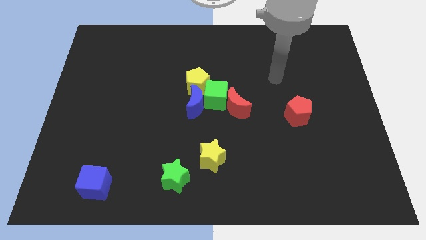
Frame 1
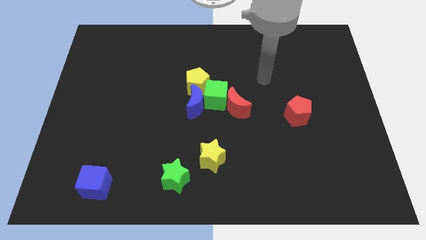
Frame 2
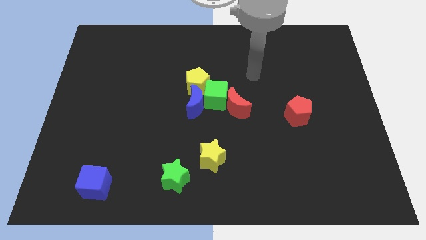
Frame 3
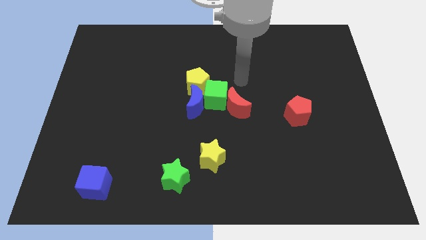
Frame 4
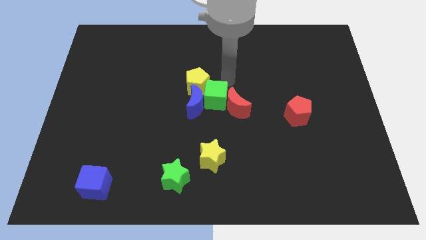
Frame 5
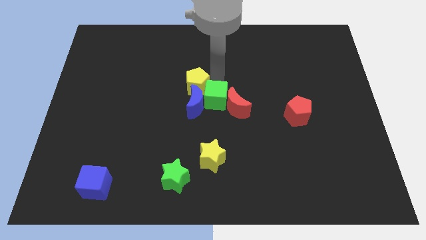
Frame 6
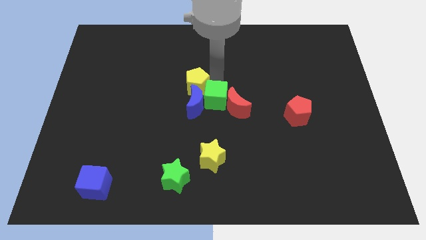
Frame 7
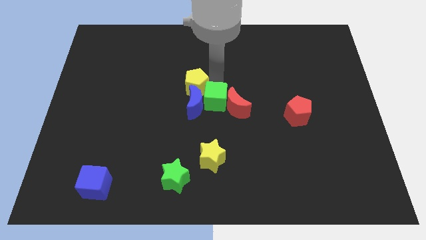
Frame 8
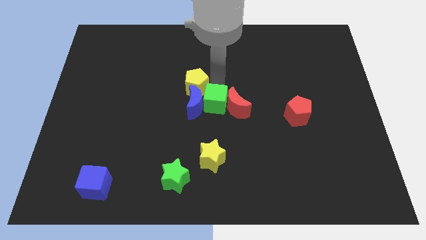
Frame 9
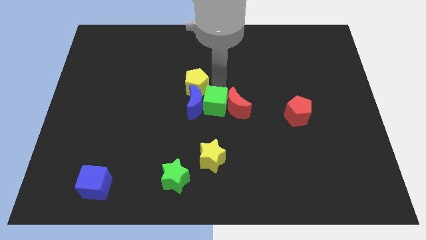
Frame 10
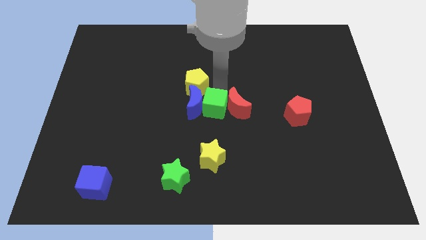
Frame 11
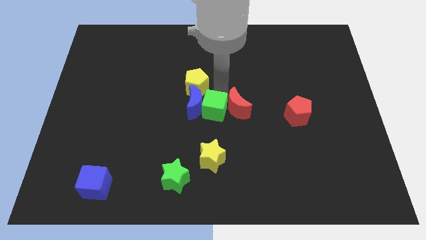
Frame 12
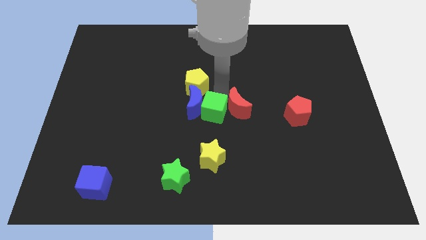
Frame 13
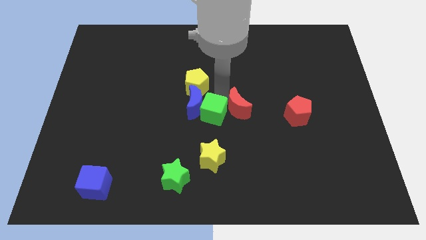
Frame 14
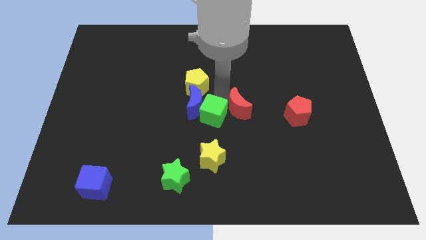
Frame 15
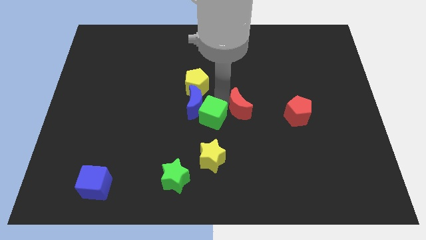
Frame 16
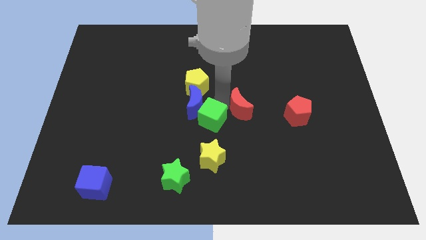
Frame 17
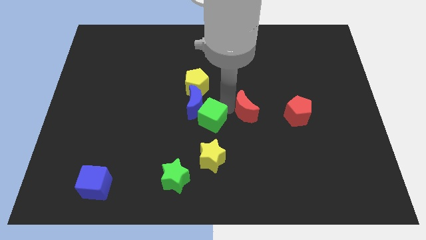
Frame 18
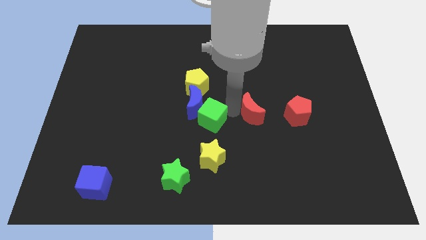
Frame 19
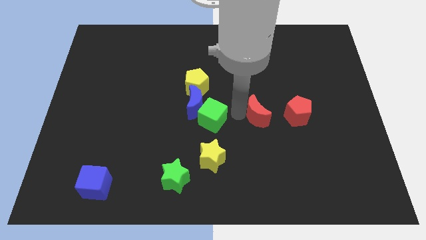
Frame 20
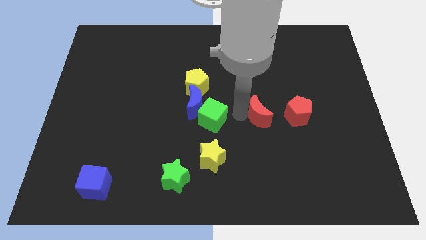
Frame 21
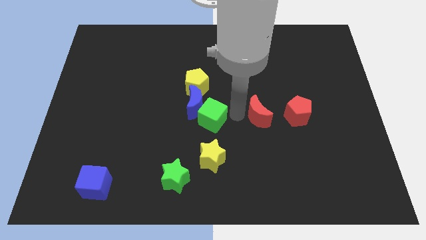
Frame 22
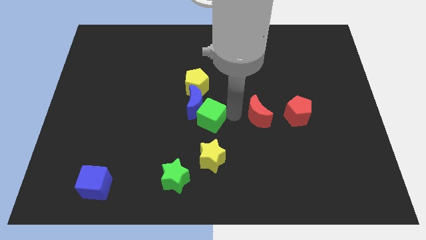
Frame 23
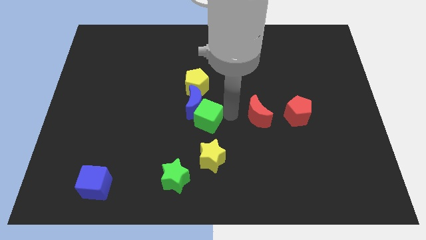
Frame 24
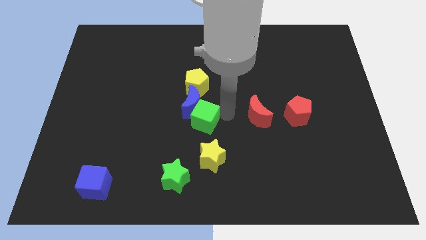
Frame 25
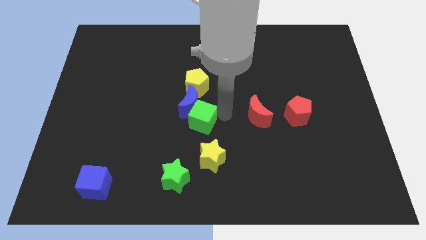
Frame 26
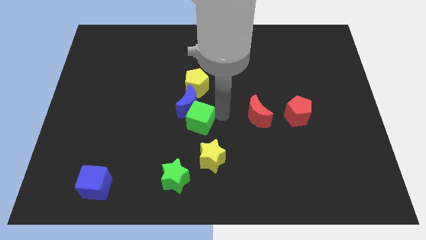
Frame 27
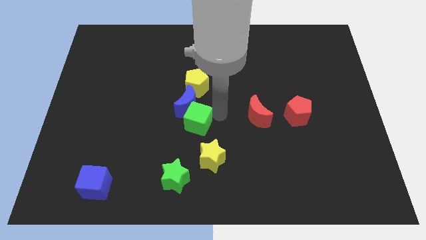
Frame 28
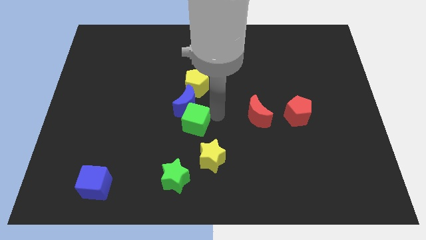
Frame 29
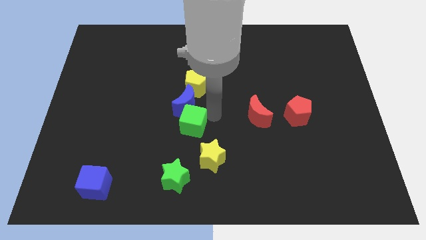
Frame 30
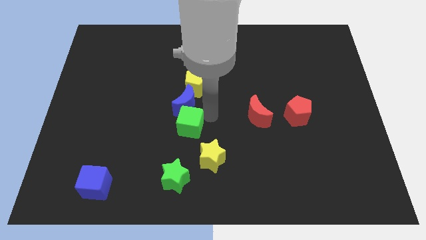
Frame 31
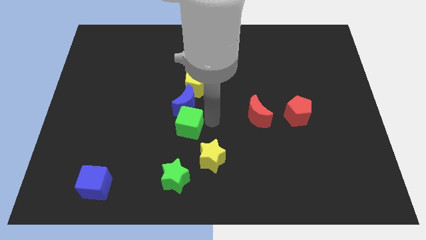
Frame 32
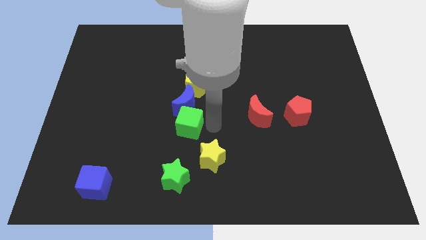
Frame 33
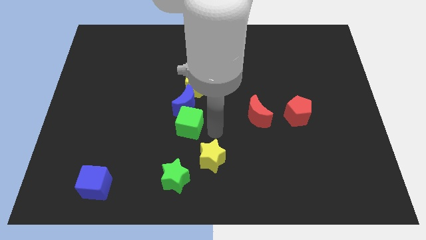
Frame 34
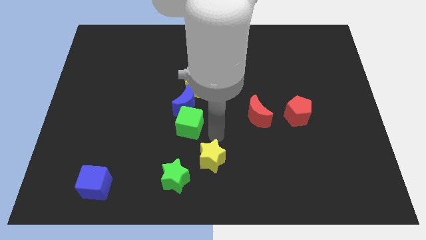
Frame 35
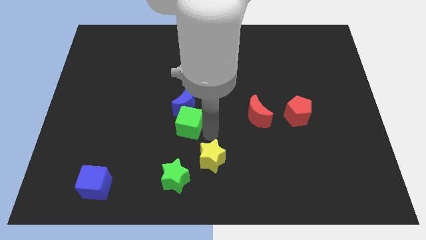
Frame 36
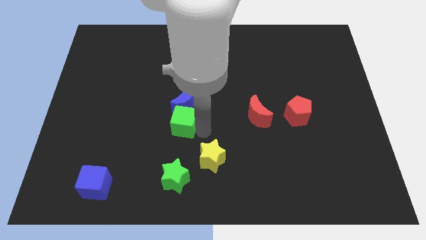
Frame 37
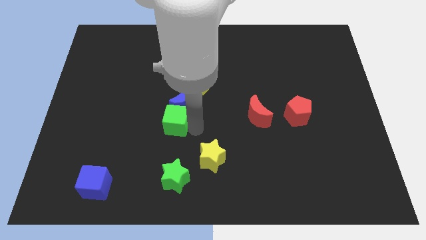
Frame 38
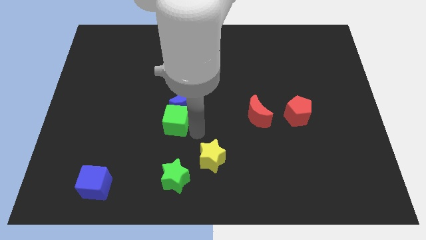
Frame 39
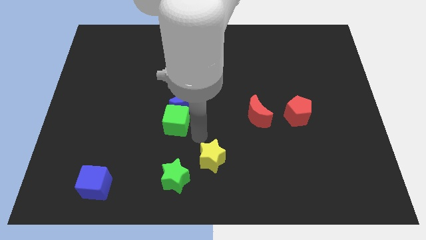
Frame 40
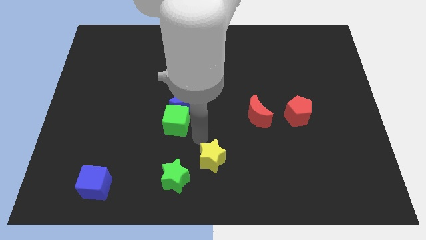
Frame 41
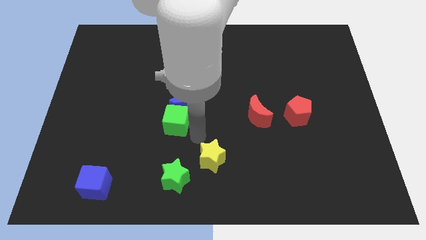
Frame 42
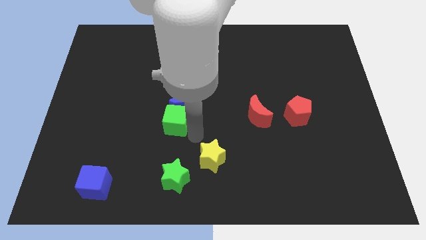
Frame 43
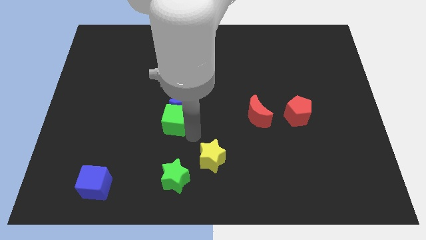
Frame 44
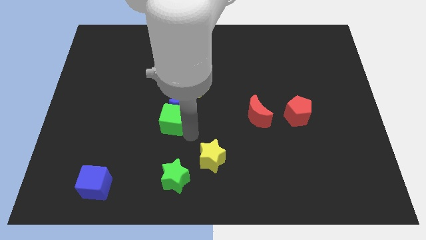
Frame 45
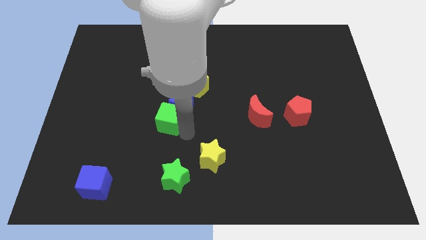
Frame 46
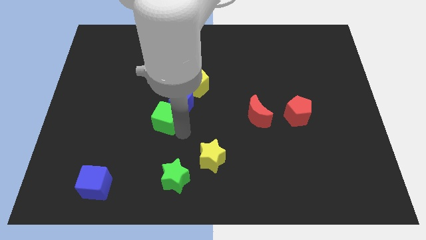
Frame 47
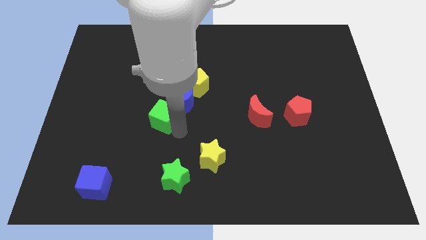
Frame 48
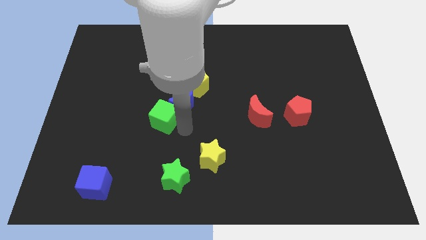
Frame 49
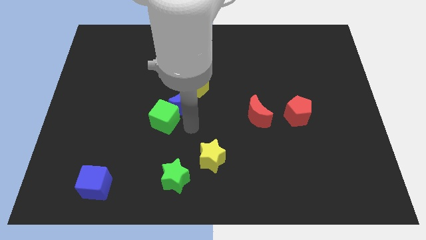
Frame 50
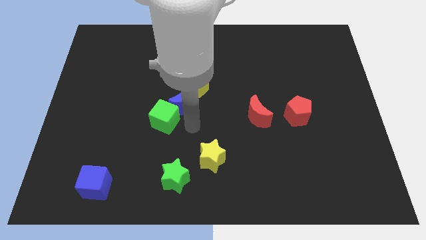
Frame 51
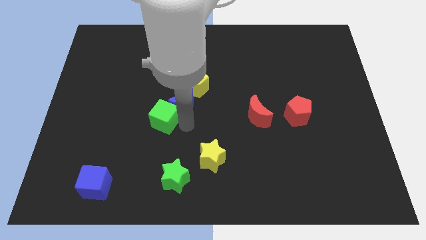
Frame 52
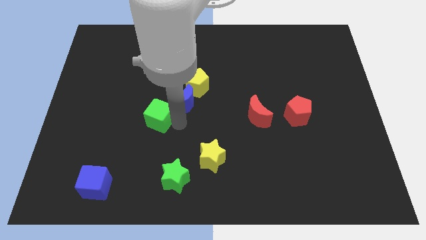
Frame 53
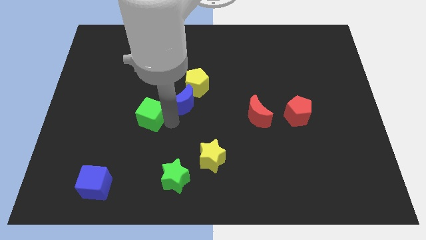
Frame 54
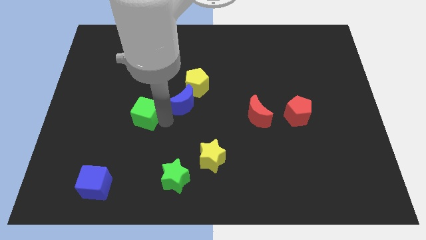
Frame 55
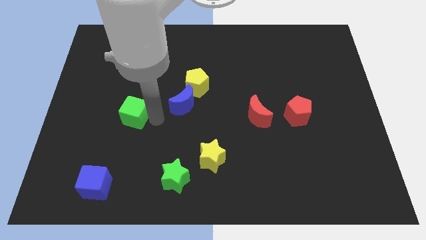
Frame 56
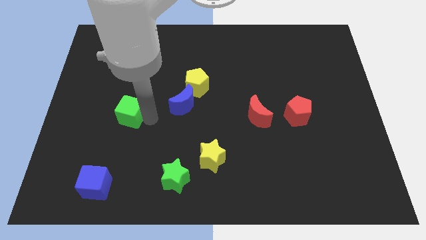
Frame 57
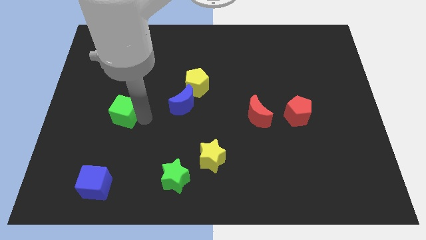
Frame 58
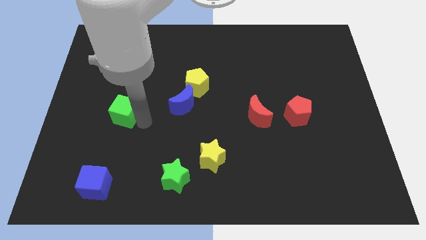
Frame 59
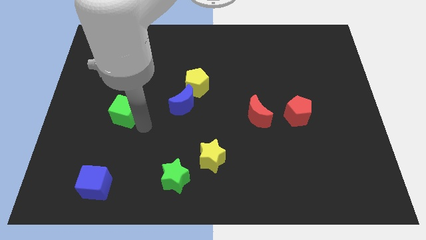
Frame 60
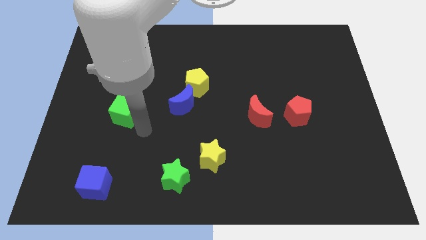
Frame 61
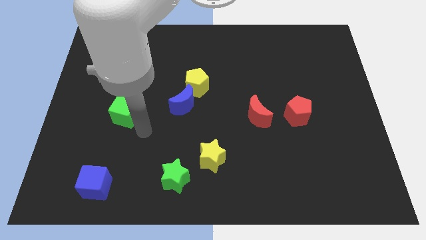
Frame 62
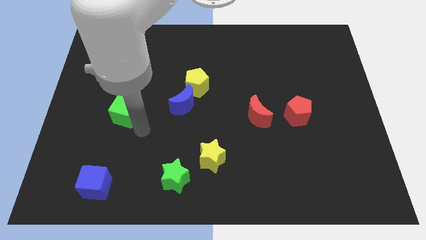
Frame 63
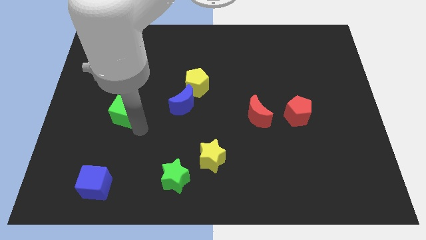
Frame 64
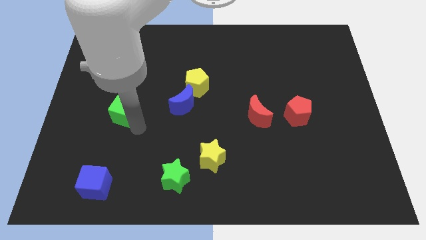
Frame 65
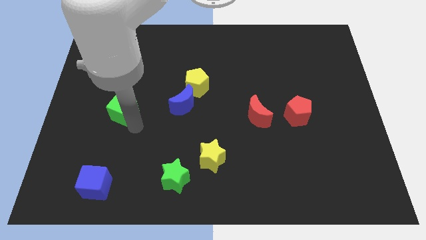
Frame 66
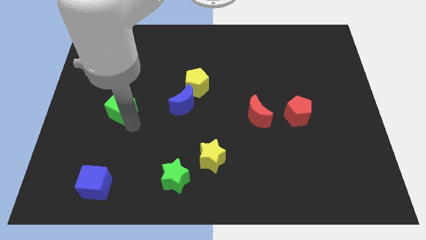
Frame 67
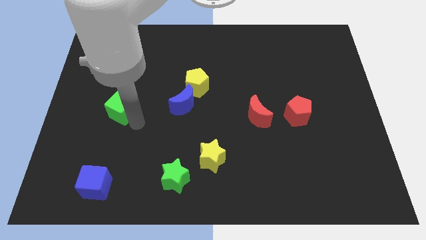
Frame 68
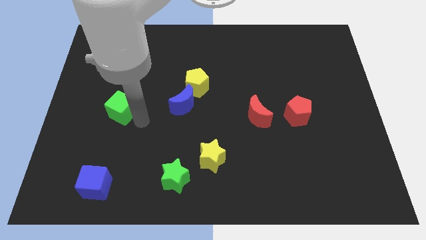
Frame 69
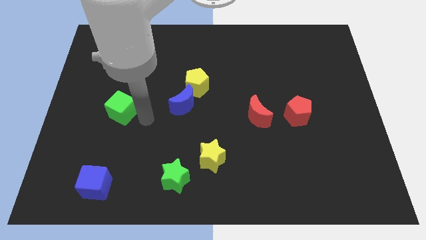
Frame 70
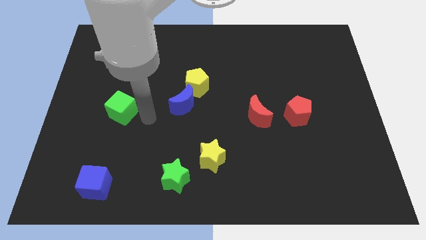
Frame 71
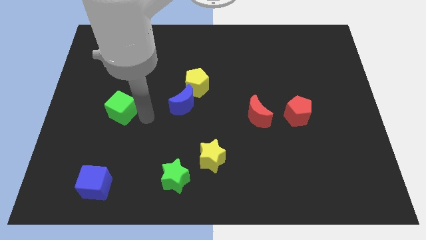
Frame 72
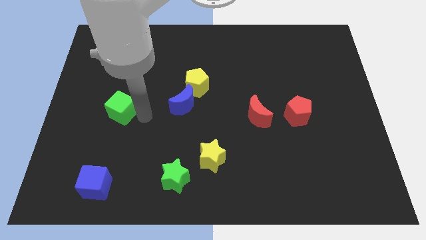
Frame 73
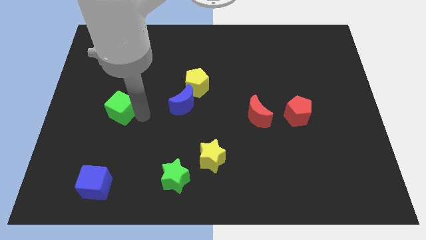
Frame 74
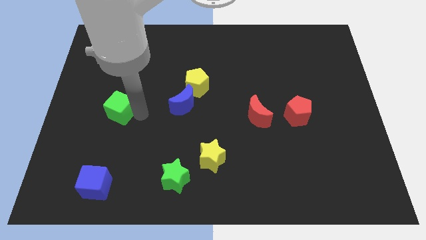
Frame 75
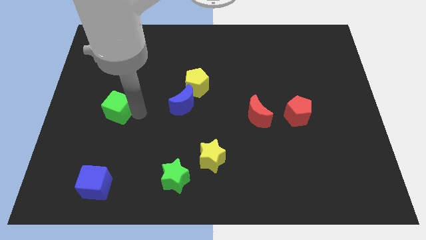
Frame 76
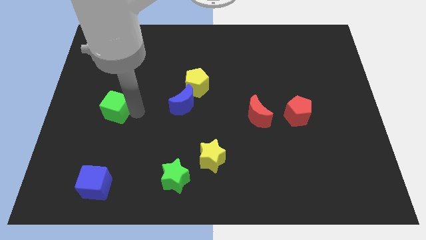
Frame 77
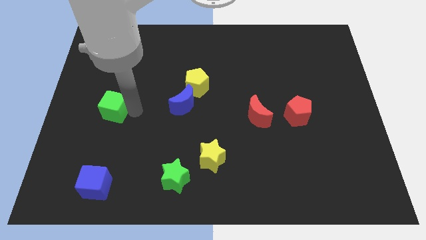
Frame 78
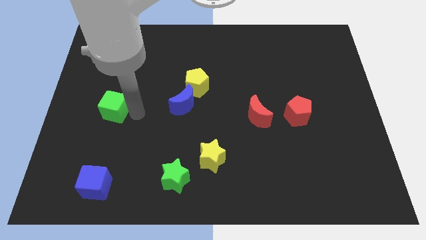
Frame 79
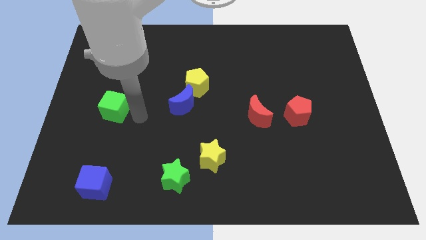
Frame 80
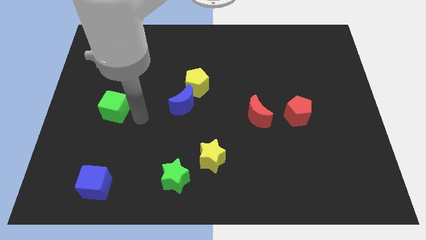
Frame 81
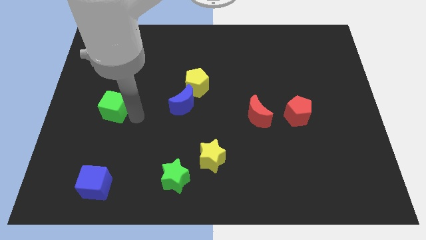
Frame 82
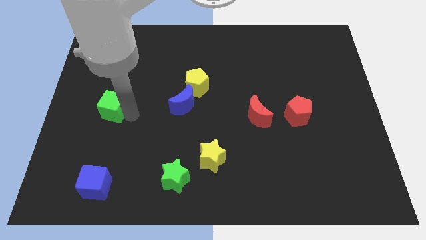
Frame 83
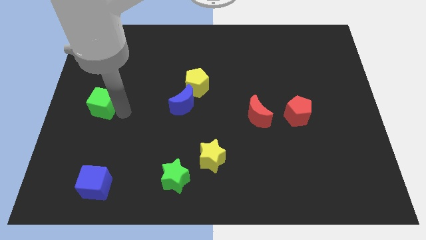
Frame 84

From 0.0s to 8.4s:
push the green cube to the left side of the board
